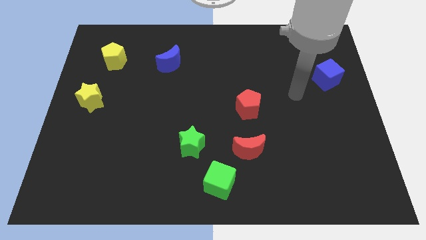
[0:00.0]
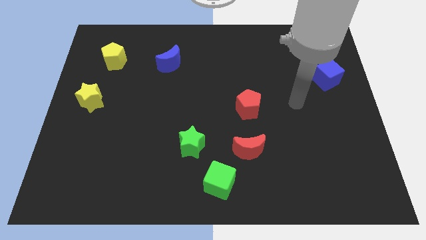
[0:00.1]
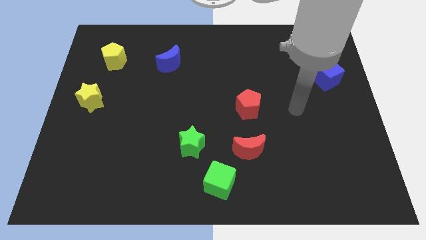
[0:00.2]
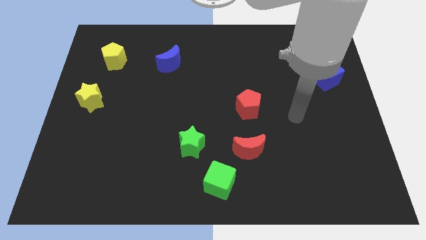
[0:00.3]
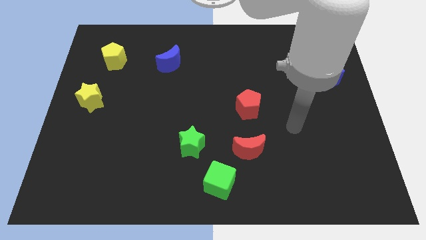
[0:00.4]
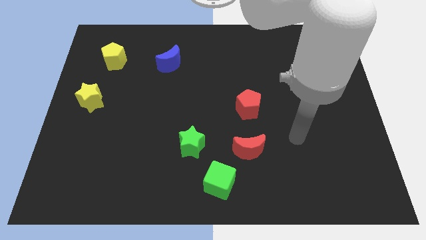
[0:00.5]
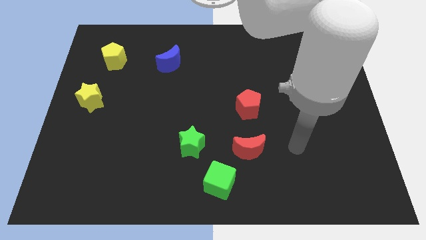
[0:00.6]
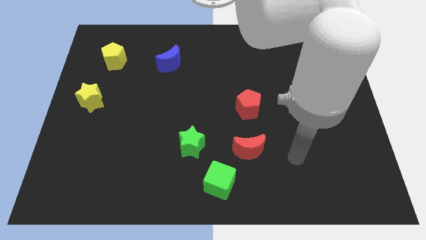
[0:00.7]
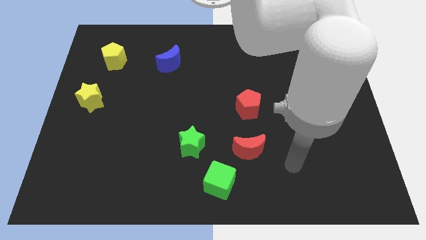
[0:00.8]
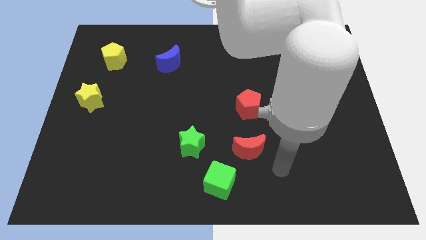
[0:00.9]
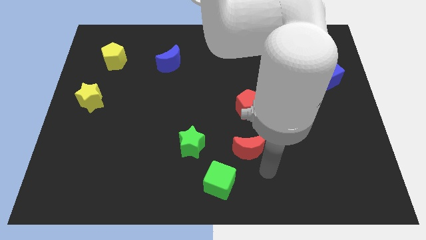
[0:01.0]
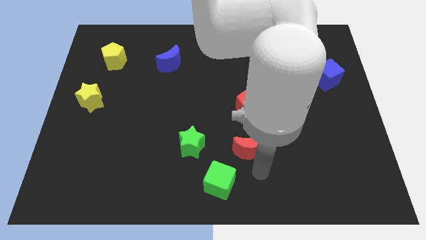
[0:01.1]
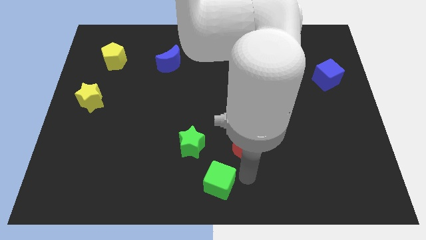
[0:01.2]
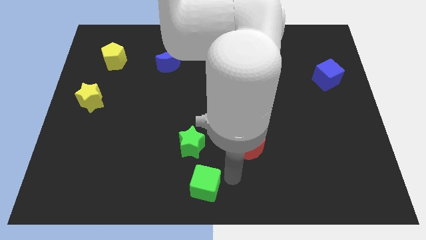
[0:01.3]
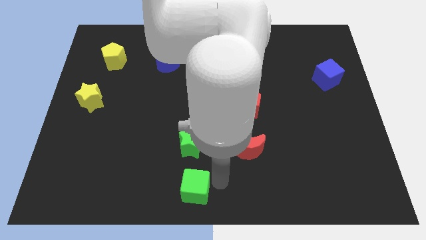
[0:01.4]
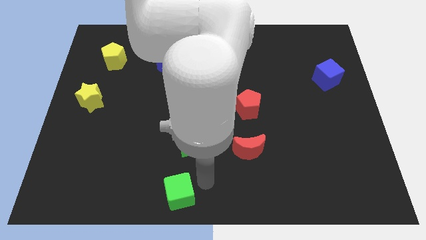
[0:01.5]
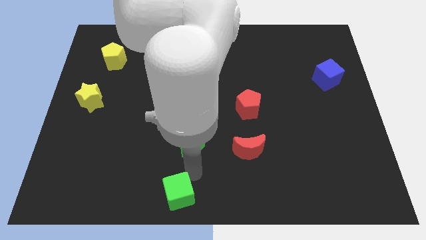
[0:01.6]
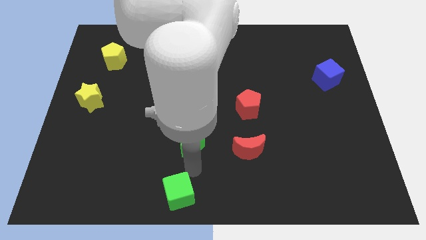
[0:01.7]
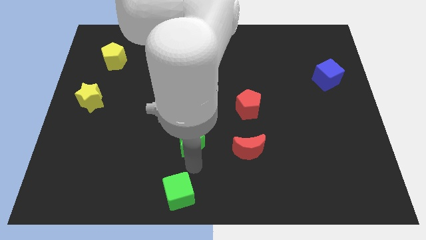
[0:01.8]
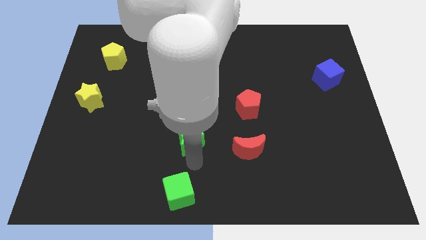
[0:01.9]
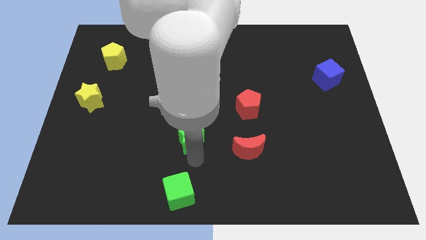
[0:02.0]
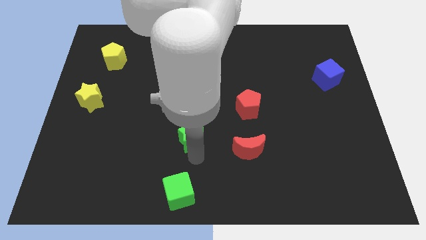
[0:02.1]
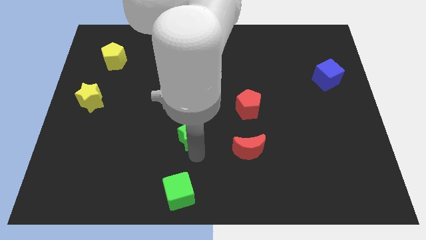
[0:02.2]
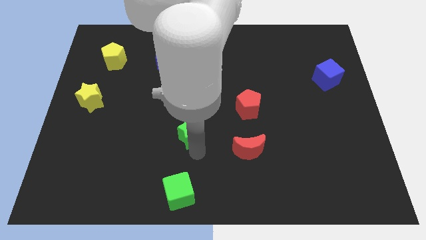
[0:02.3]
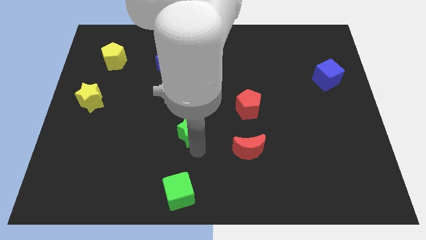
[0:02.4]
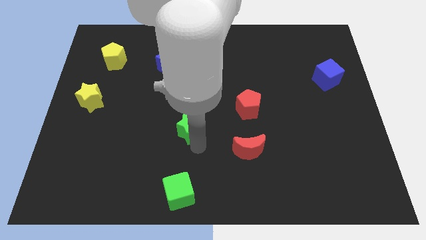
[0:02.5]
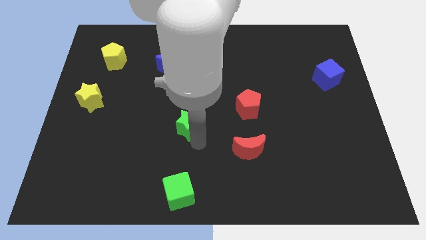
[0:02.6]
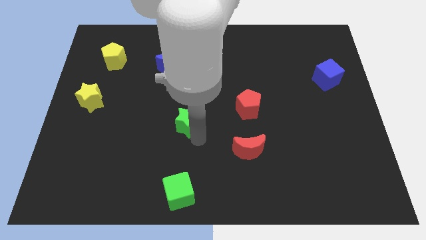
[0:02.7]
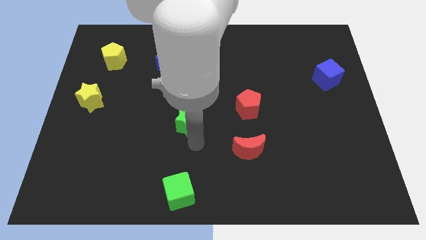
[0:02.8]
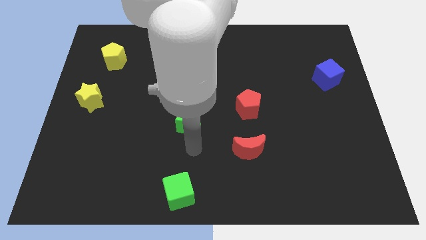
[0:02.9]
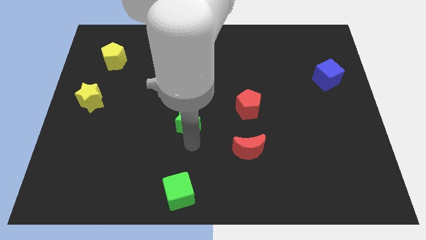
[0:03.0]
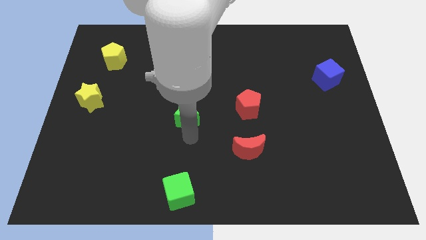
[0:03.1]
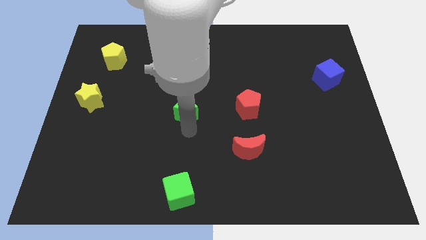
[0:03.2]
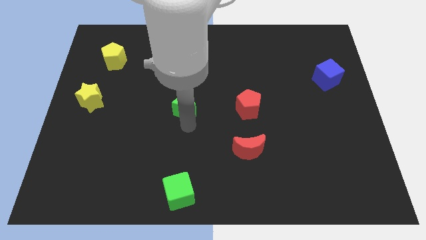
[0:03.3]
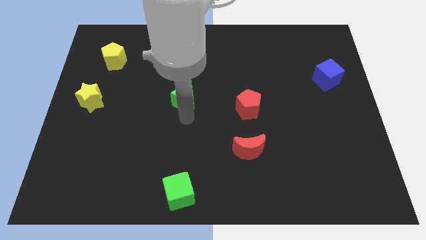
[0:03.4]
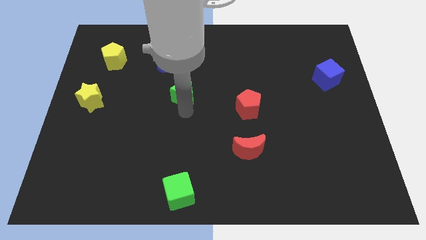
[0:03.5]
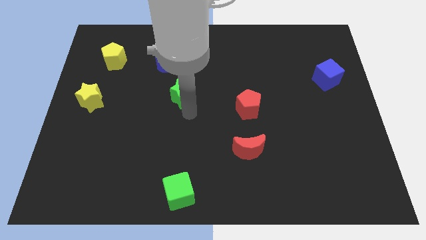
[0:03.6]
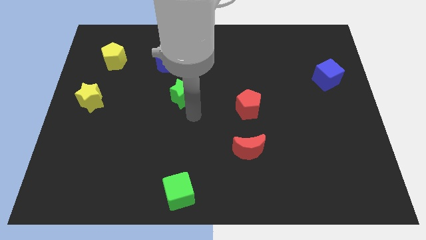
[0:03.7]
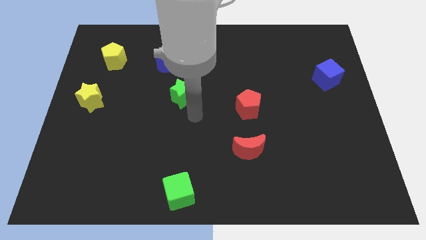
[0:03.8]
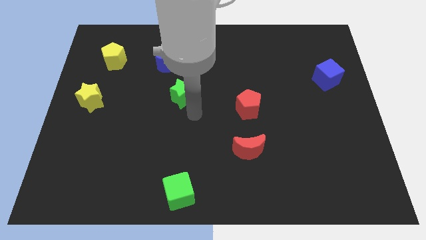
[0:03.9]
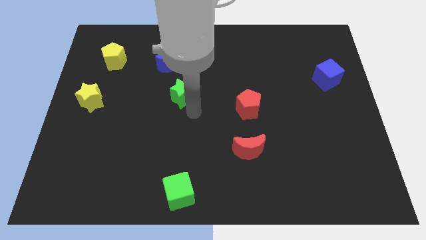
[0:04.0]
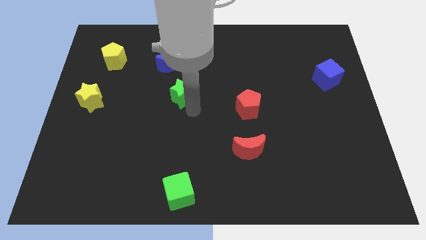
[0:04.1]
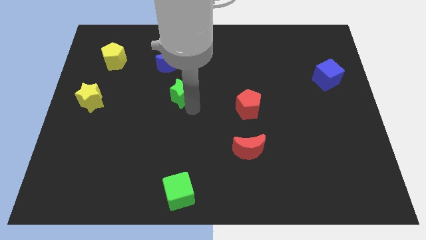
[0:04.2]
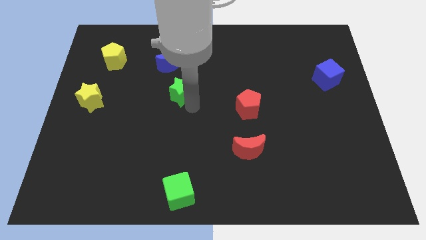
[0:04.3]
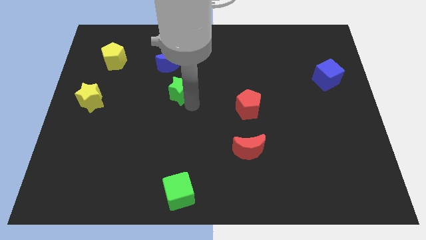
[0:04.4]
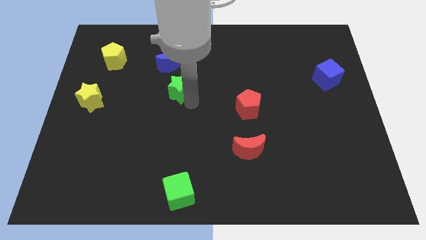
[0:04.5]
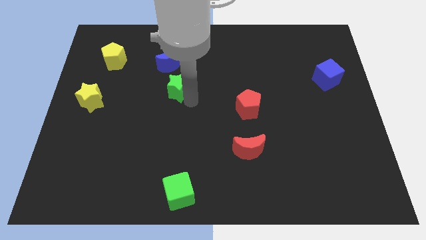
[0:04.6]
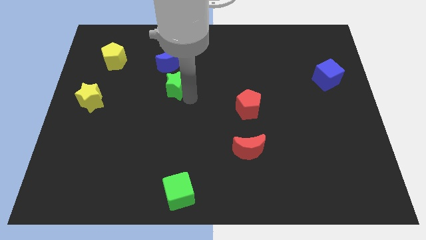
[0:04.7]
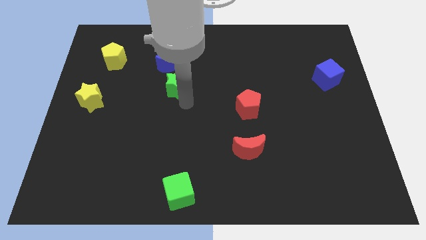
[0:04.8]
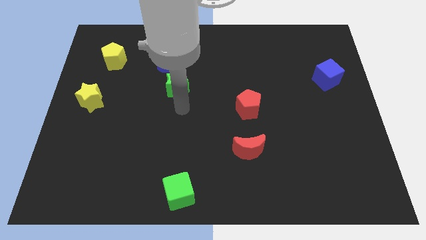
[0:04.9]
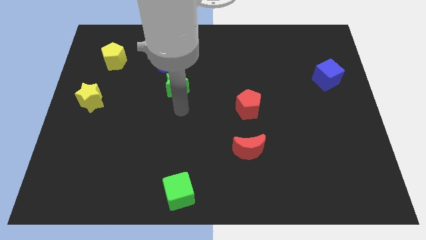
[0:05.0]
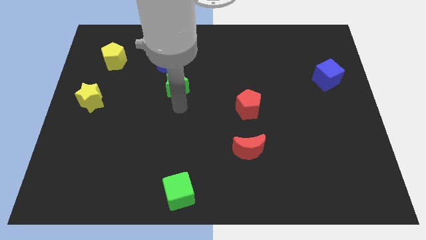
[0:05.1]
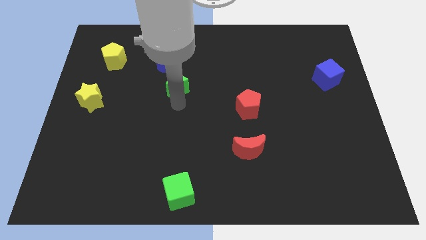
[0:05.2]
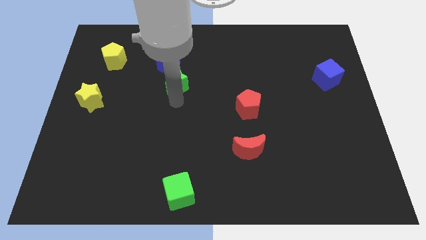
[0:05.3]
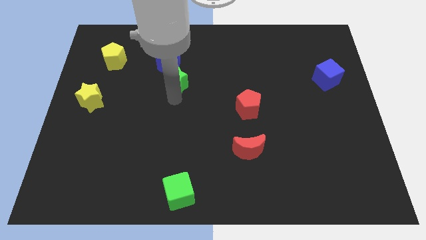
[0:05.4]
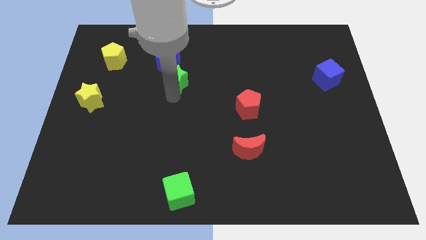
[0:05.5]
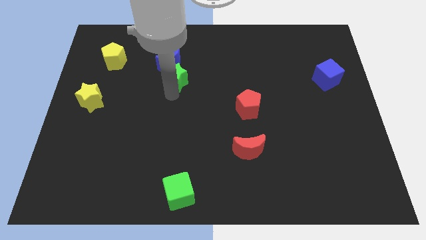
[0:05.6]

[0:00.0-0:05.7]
move the green star next to the blue moon

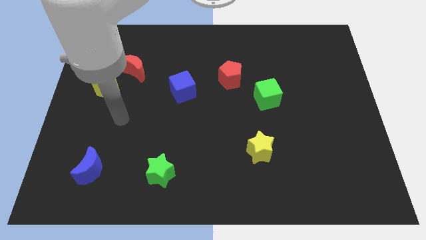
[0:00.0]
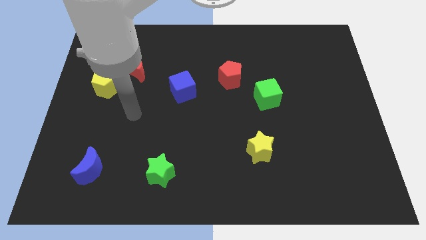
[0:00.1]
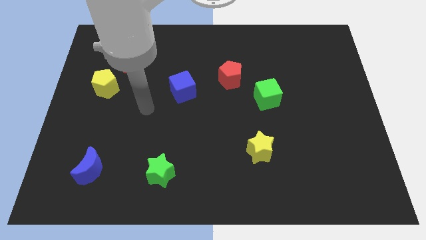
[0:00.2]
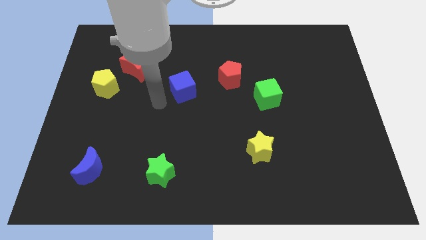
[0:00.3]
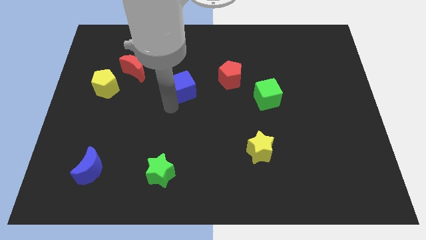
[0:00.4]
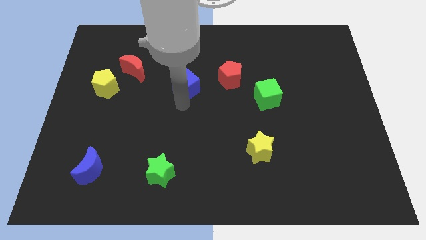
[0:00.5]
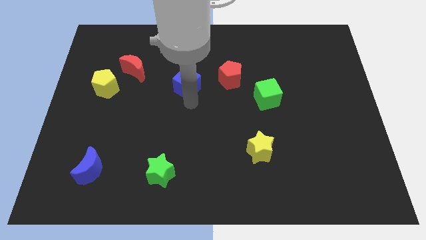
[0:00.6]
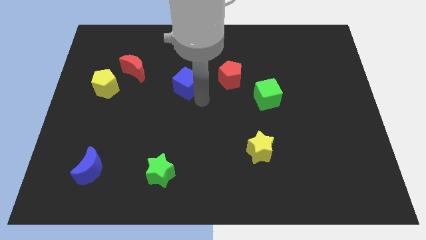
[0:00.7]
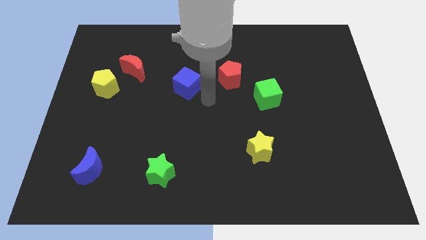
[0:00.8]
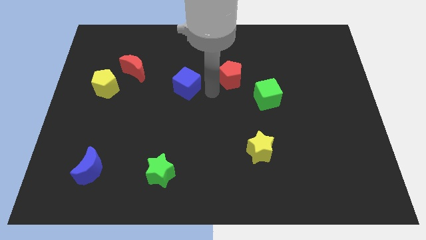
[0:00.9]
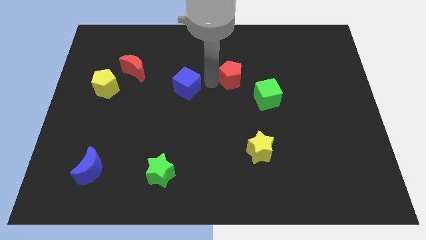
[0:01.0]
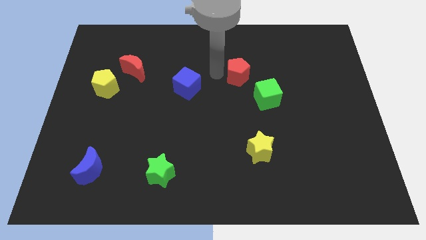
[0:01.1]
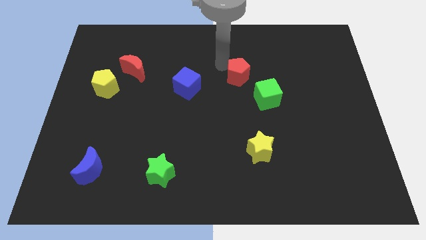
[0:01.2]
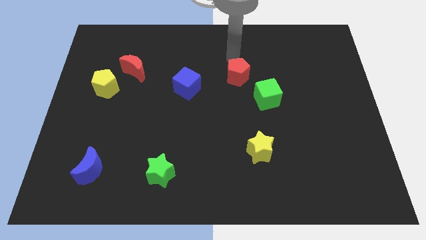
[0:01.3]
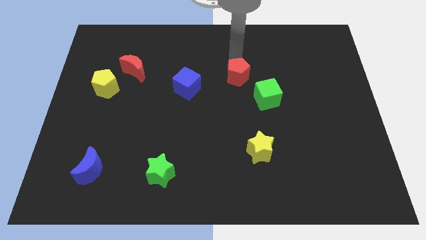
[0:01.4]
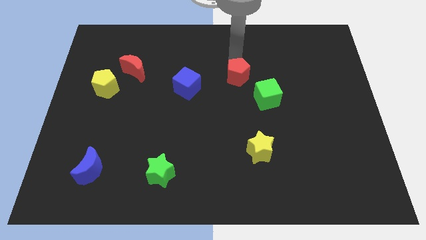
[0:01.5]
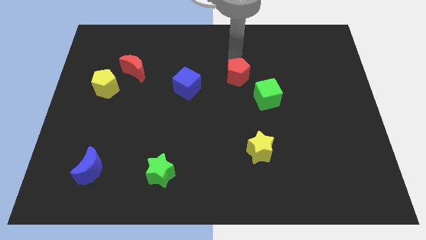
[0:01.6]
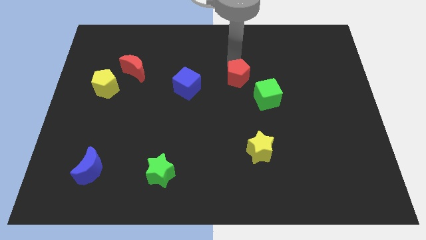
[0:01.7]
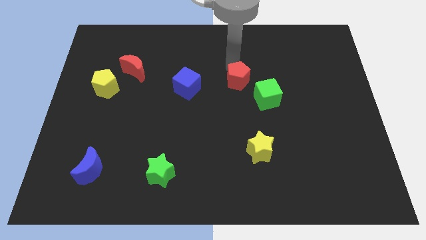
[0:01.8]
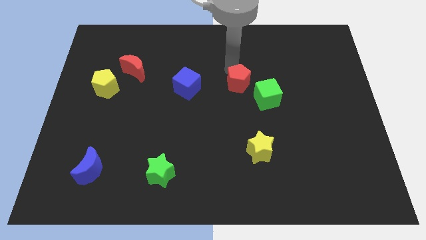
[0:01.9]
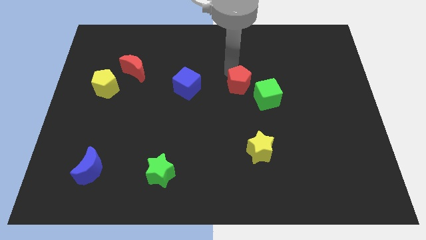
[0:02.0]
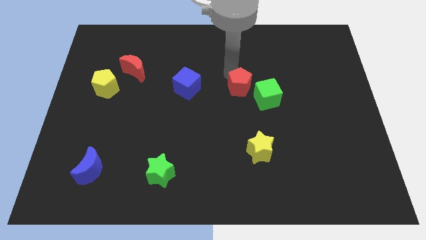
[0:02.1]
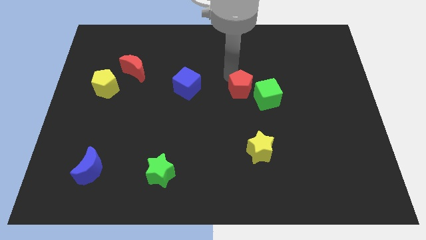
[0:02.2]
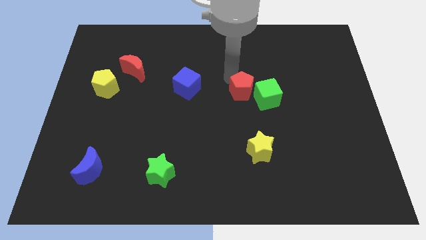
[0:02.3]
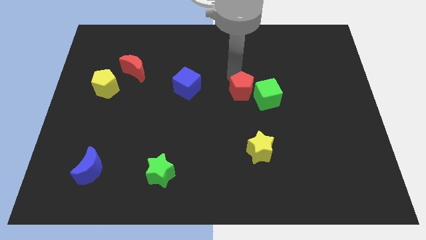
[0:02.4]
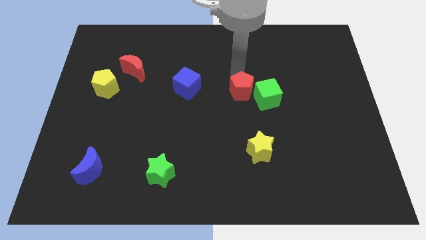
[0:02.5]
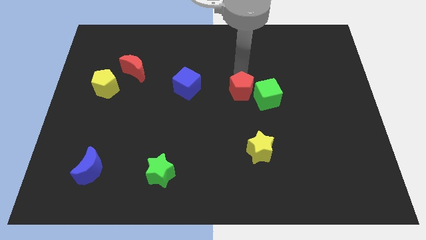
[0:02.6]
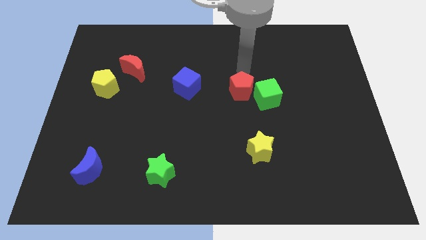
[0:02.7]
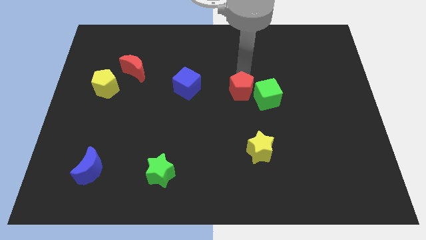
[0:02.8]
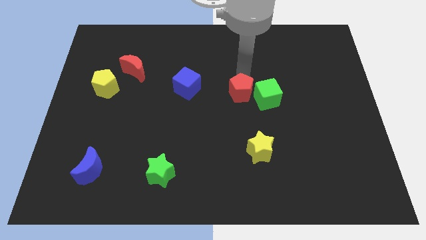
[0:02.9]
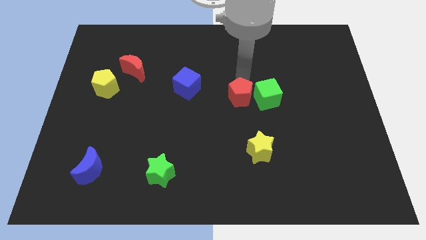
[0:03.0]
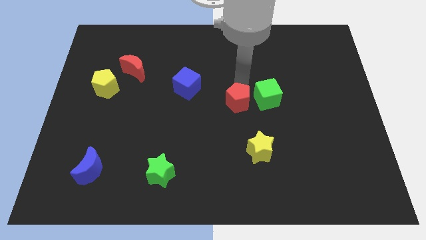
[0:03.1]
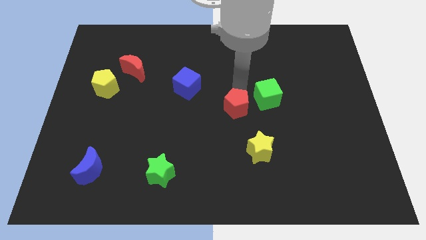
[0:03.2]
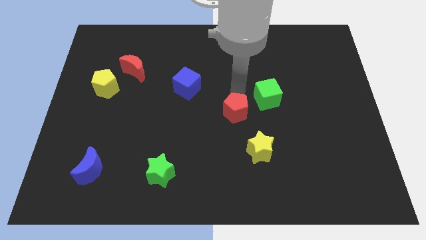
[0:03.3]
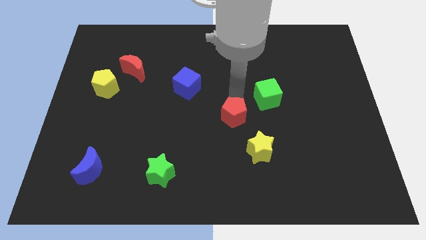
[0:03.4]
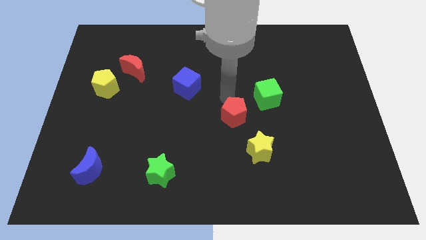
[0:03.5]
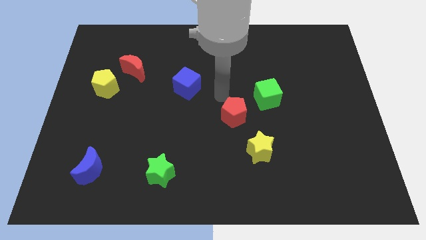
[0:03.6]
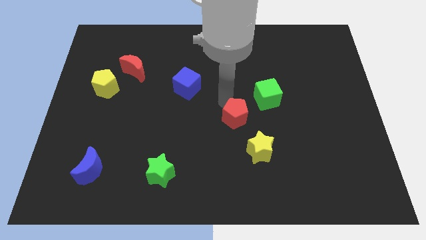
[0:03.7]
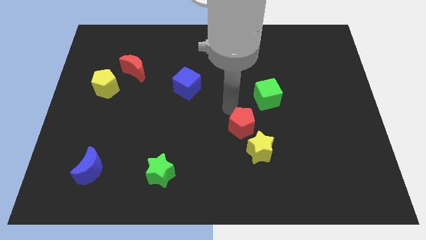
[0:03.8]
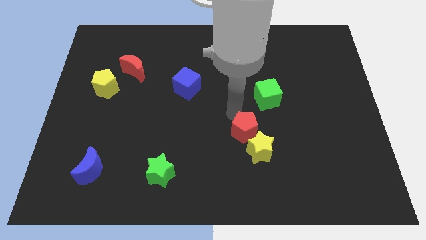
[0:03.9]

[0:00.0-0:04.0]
slide the red pentagon close to the yellow star
